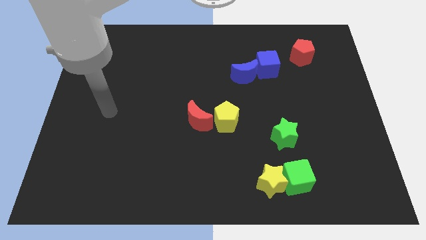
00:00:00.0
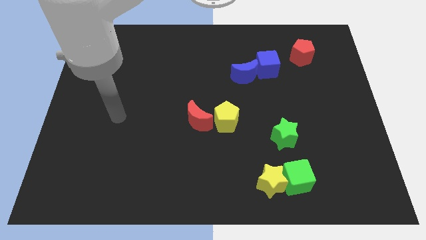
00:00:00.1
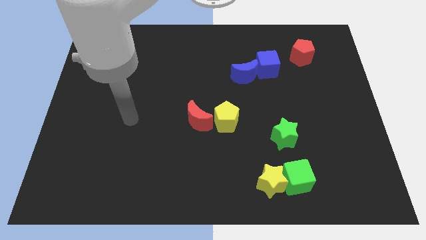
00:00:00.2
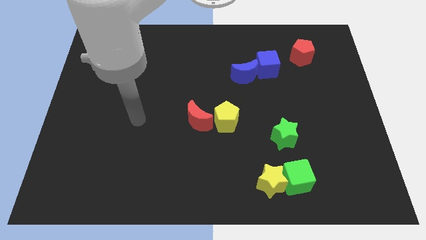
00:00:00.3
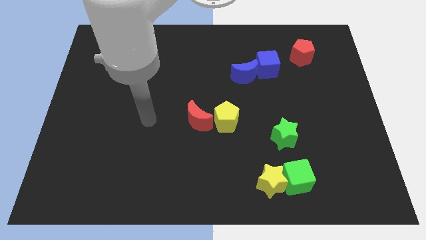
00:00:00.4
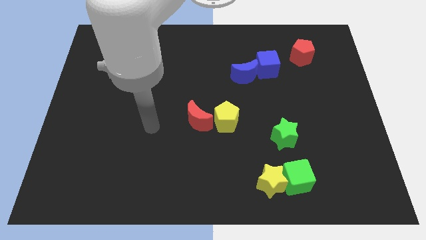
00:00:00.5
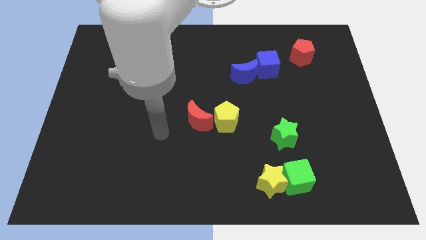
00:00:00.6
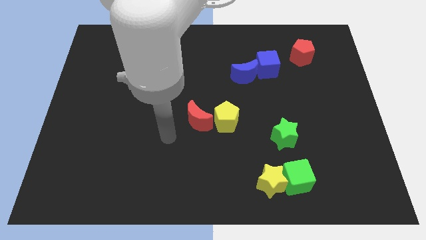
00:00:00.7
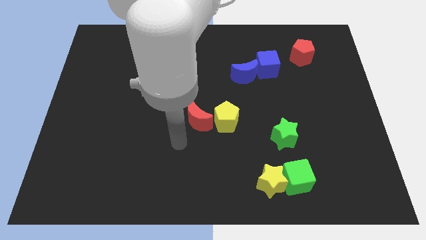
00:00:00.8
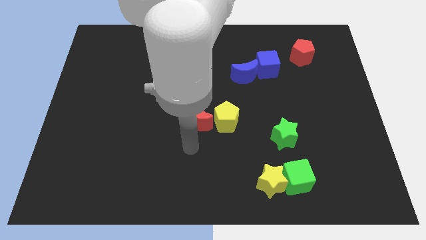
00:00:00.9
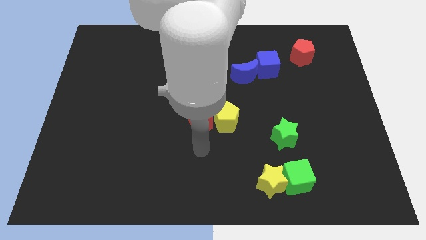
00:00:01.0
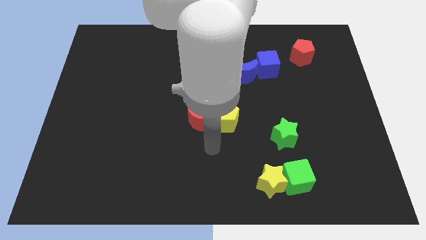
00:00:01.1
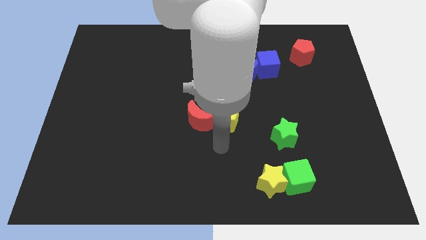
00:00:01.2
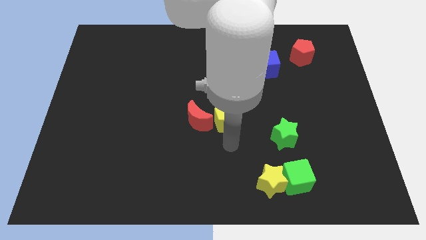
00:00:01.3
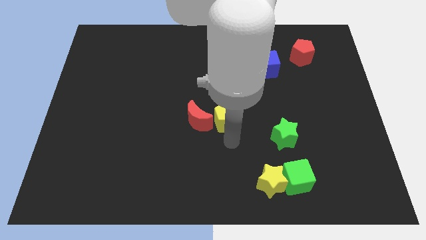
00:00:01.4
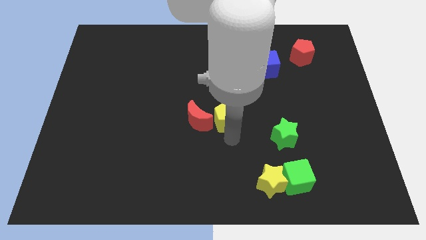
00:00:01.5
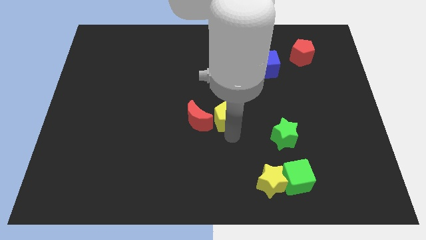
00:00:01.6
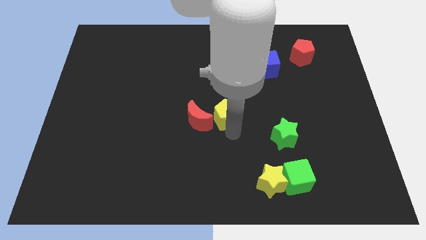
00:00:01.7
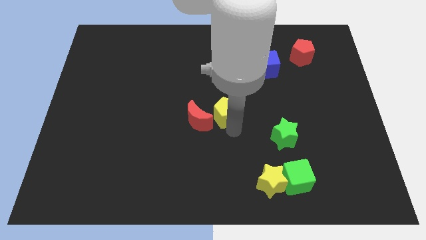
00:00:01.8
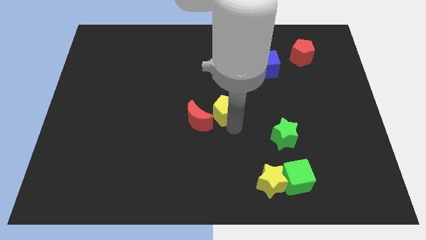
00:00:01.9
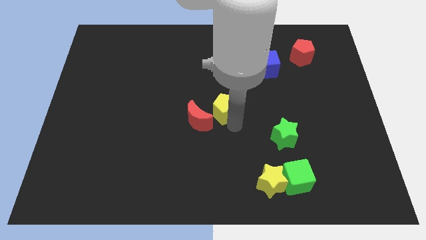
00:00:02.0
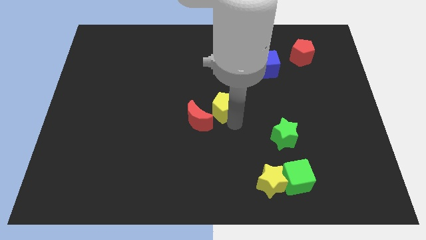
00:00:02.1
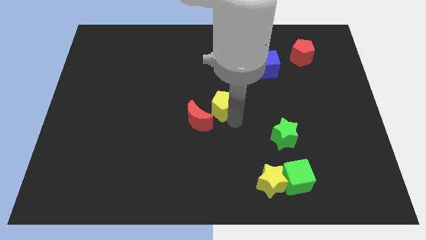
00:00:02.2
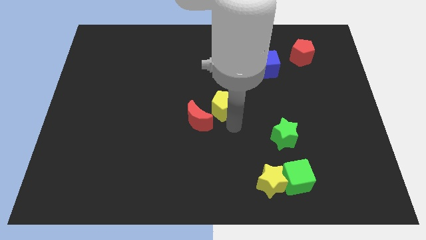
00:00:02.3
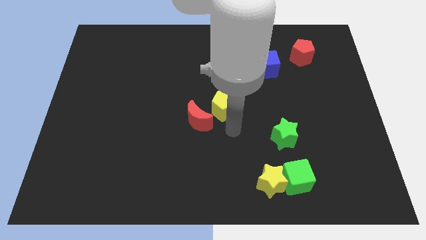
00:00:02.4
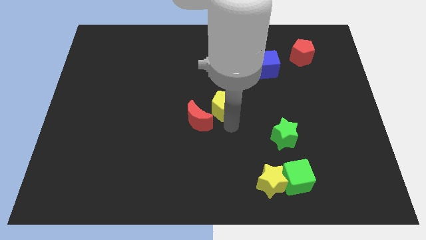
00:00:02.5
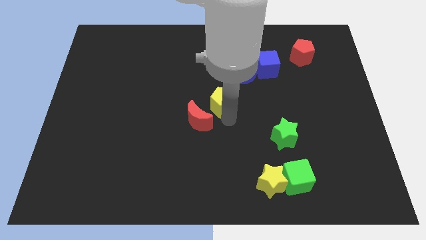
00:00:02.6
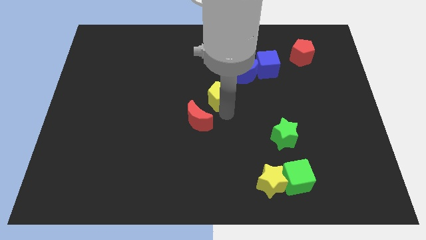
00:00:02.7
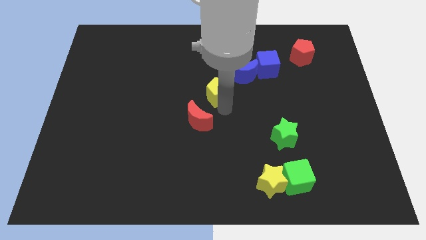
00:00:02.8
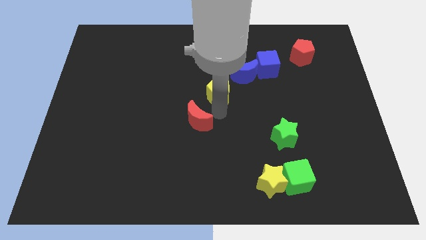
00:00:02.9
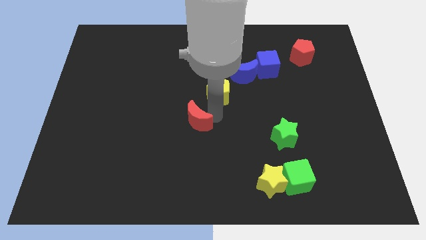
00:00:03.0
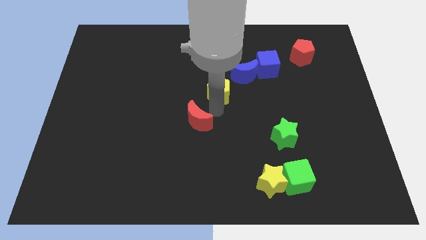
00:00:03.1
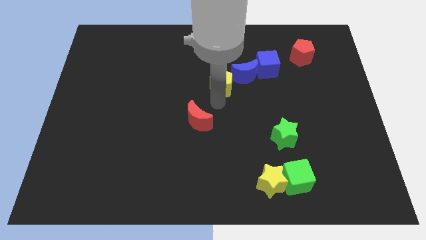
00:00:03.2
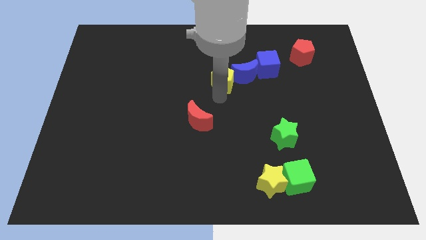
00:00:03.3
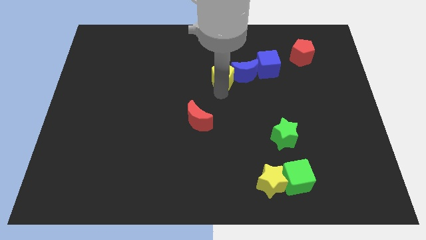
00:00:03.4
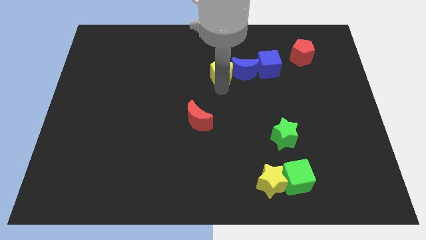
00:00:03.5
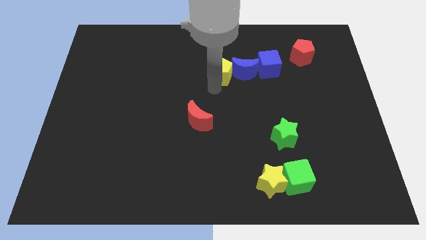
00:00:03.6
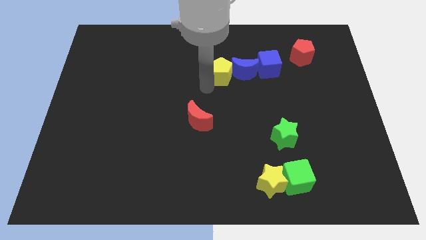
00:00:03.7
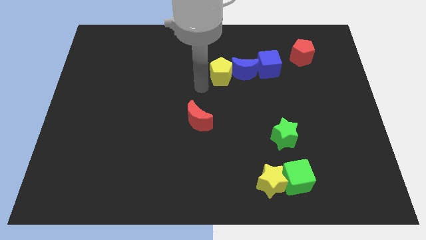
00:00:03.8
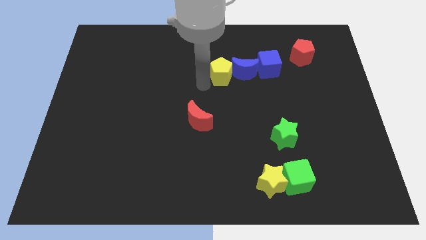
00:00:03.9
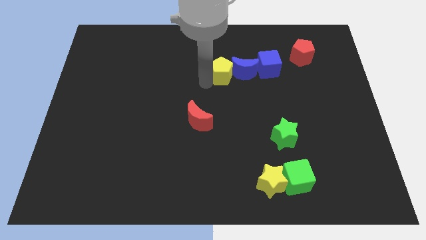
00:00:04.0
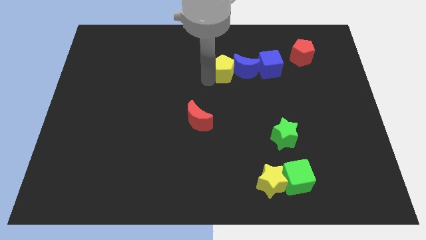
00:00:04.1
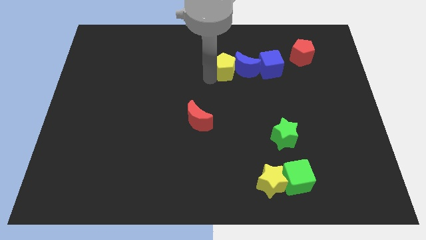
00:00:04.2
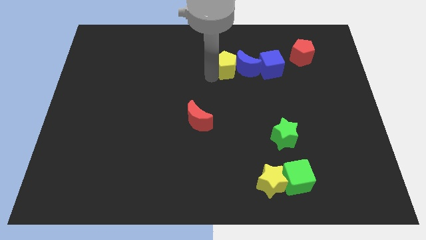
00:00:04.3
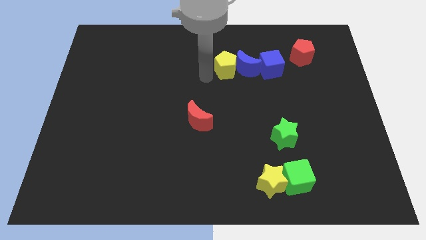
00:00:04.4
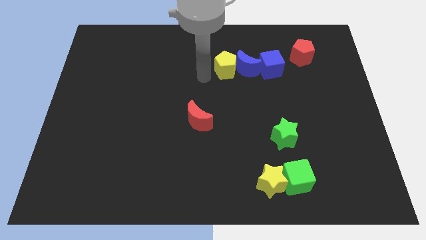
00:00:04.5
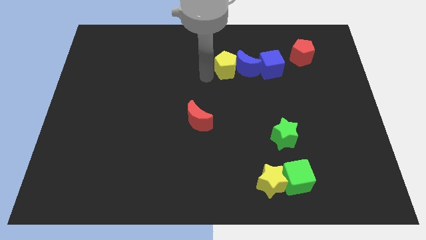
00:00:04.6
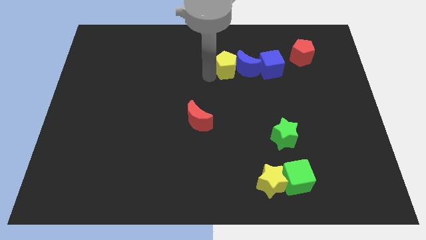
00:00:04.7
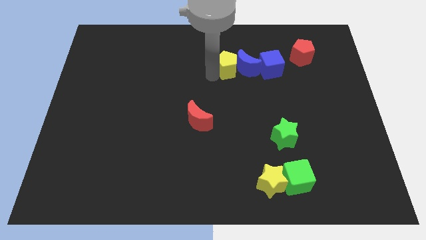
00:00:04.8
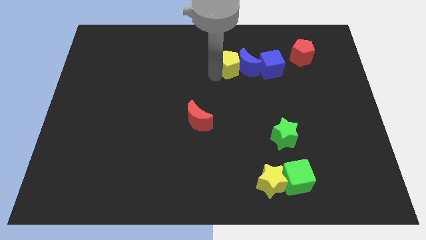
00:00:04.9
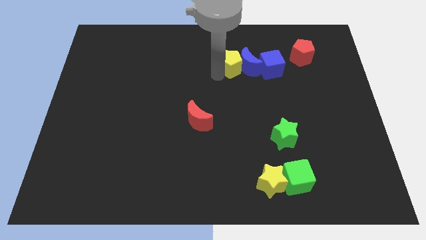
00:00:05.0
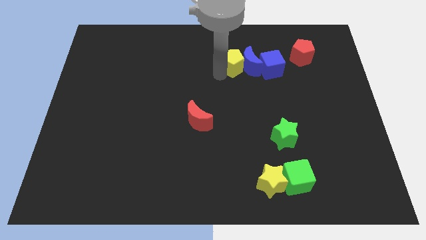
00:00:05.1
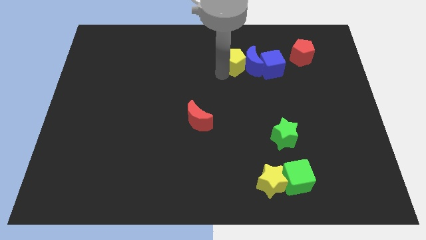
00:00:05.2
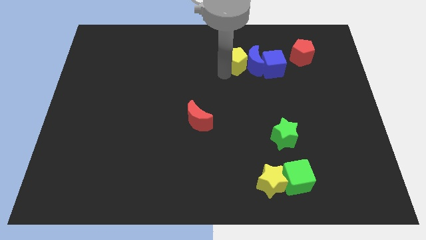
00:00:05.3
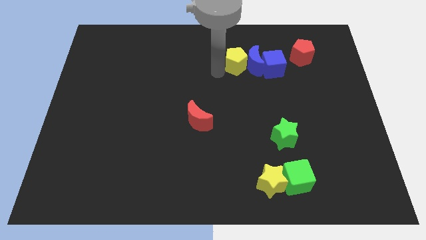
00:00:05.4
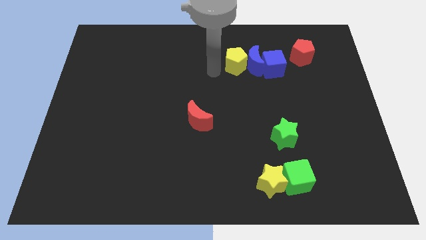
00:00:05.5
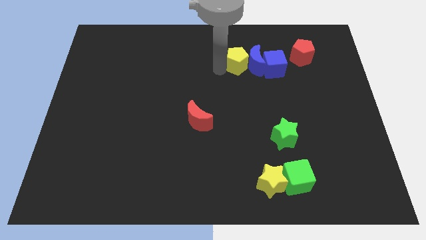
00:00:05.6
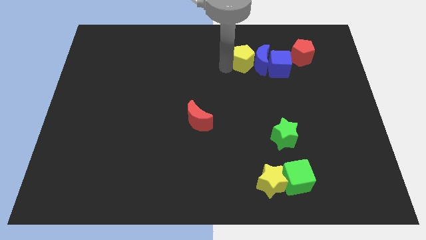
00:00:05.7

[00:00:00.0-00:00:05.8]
put the yellow pentagon left of the red pentagon
